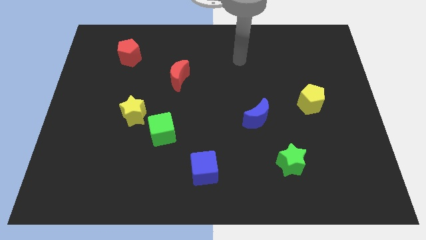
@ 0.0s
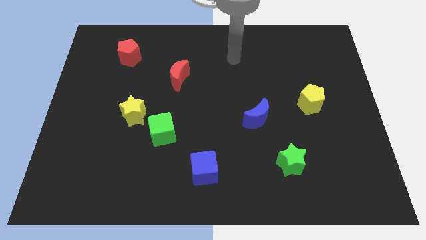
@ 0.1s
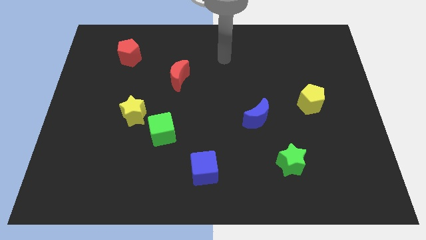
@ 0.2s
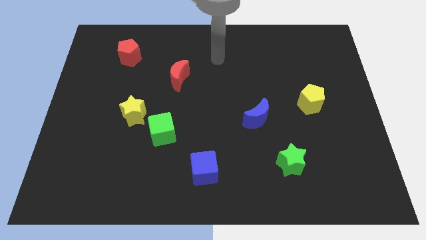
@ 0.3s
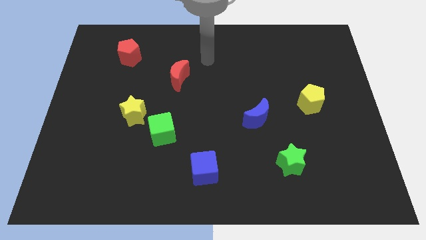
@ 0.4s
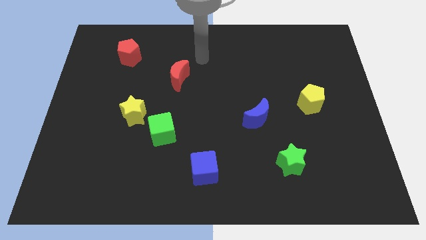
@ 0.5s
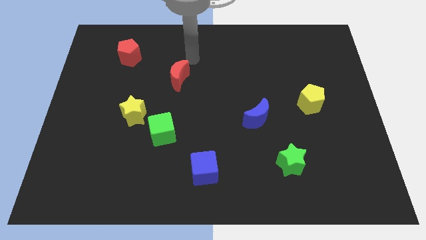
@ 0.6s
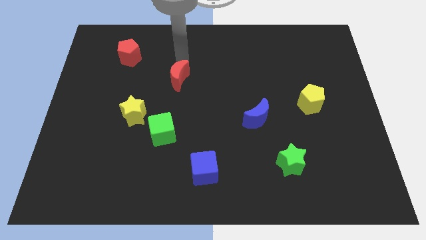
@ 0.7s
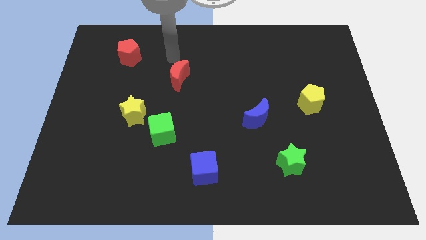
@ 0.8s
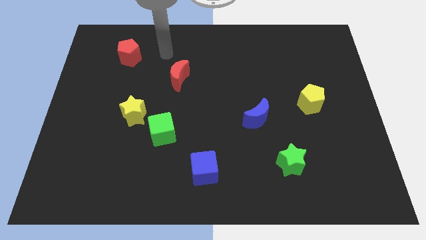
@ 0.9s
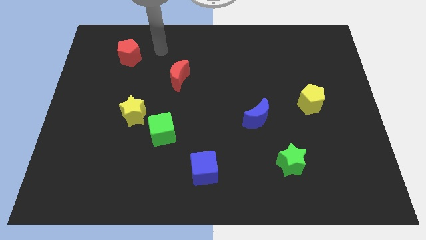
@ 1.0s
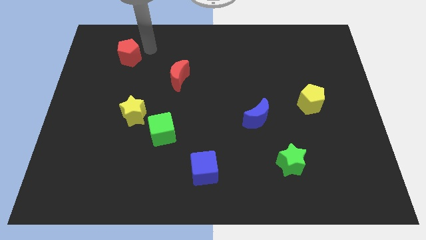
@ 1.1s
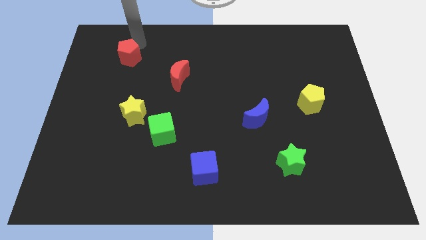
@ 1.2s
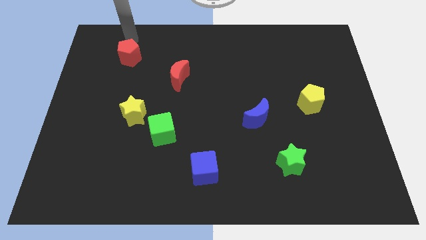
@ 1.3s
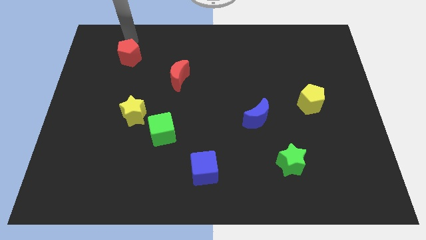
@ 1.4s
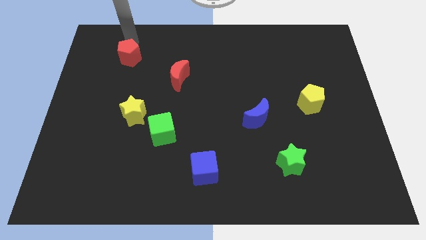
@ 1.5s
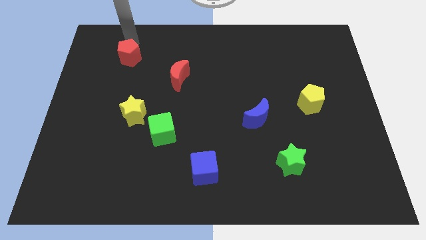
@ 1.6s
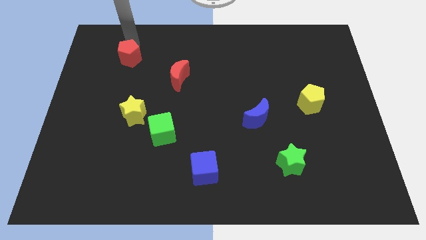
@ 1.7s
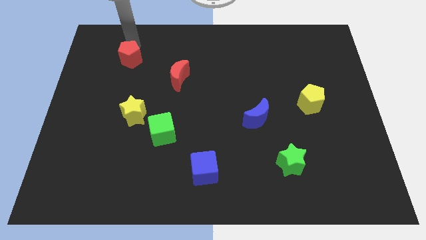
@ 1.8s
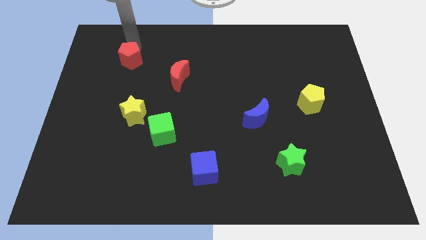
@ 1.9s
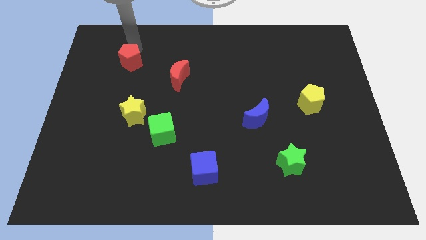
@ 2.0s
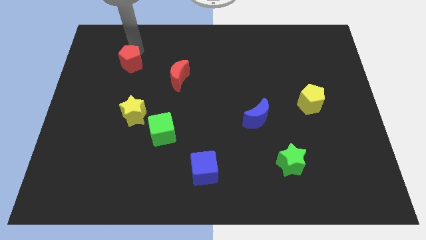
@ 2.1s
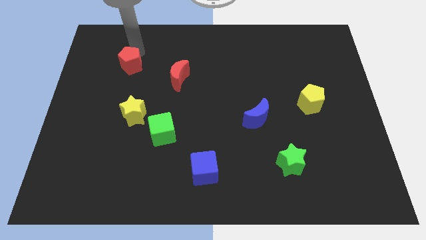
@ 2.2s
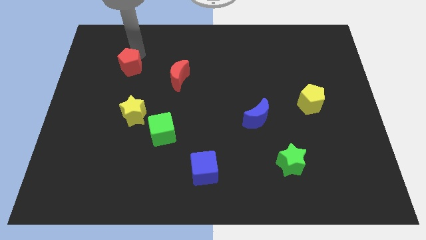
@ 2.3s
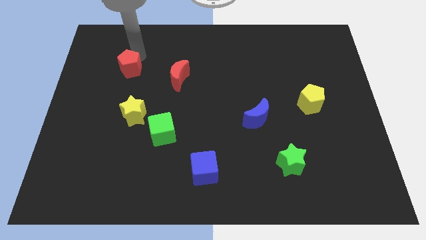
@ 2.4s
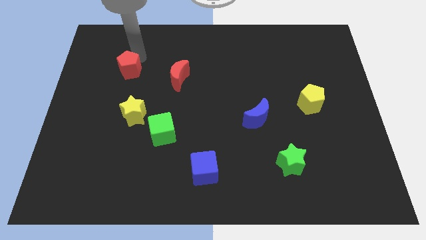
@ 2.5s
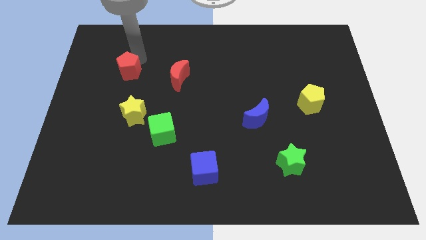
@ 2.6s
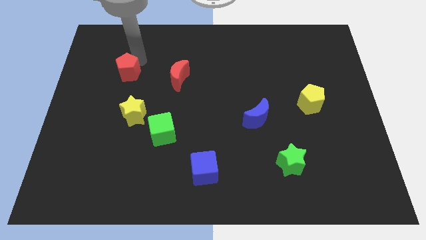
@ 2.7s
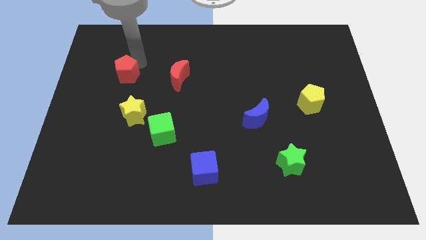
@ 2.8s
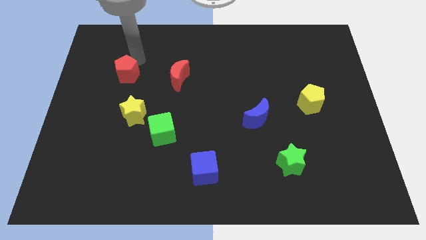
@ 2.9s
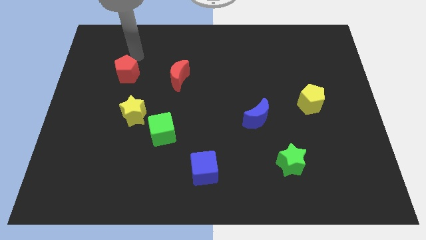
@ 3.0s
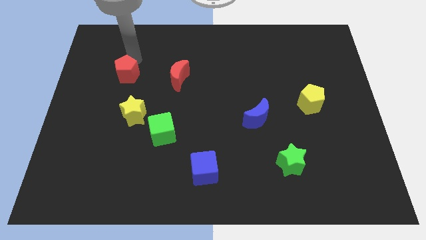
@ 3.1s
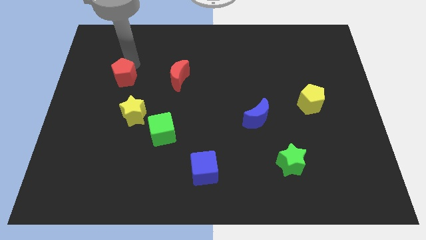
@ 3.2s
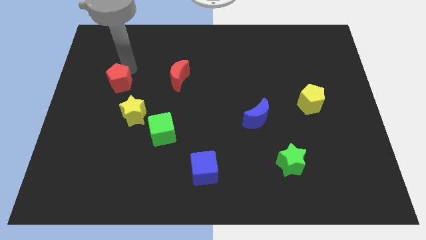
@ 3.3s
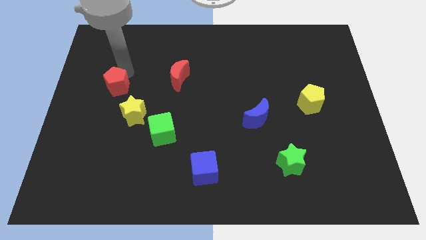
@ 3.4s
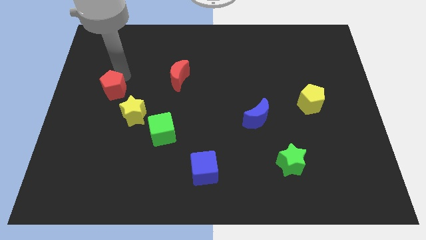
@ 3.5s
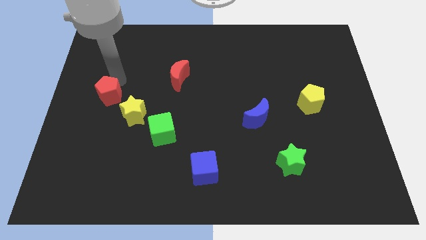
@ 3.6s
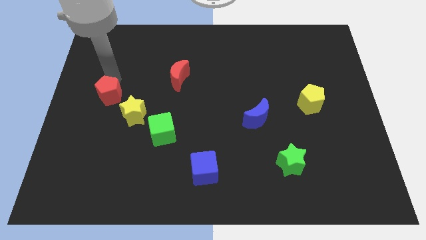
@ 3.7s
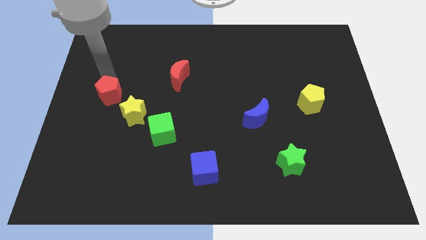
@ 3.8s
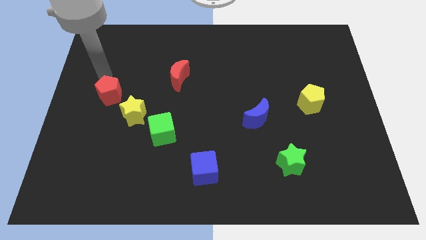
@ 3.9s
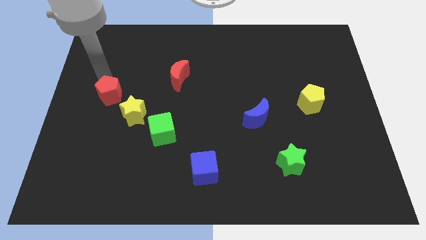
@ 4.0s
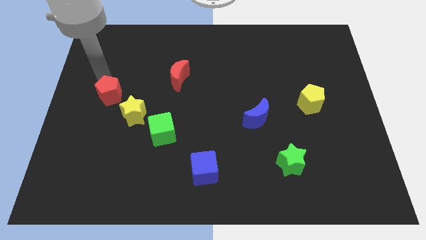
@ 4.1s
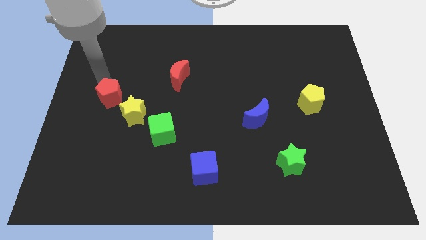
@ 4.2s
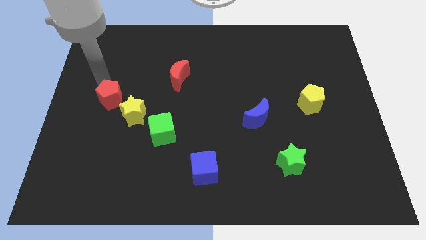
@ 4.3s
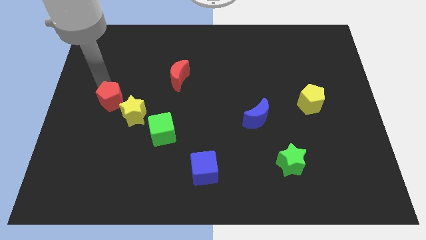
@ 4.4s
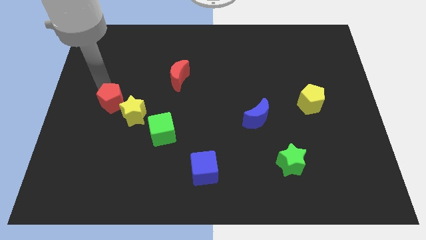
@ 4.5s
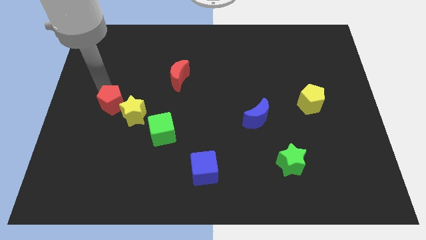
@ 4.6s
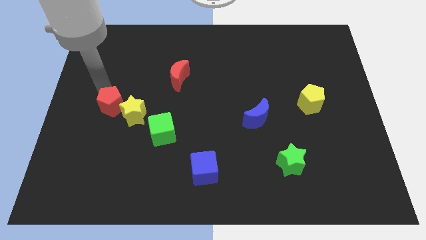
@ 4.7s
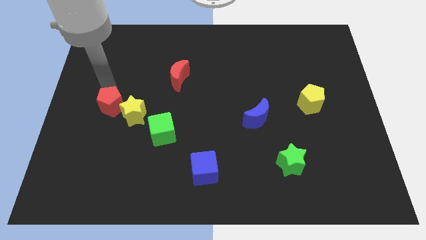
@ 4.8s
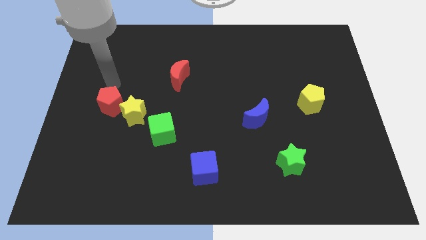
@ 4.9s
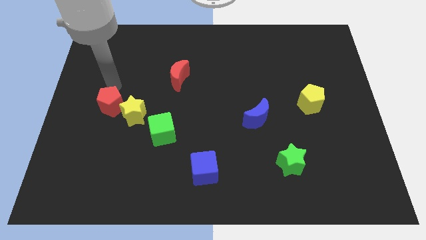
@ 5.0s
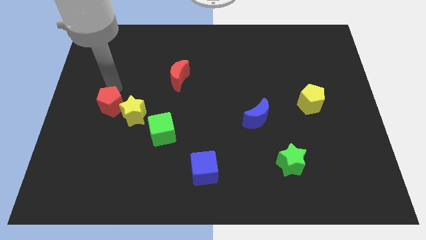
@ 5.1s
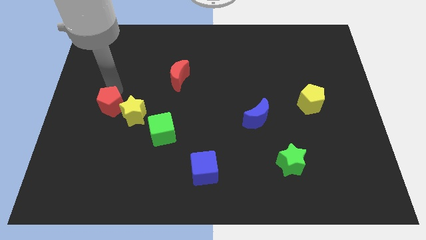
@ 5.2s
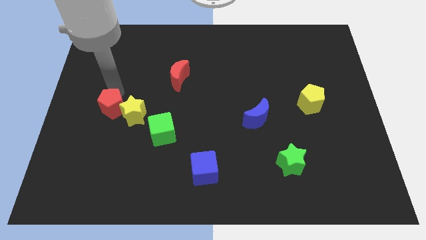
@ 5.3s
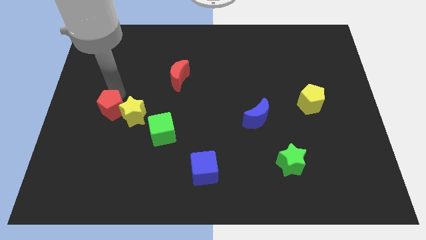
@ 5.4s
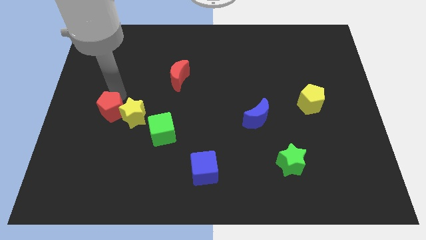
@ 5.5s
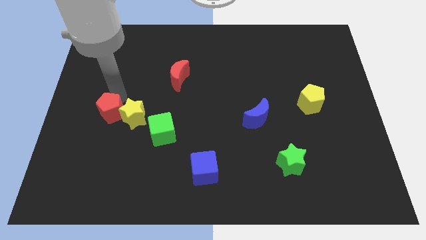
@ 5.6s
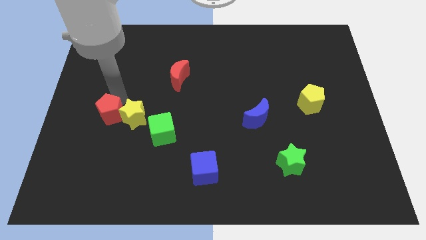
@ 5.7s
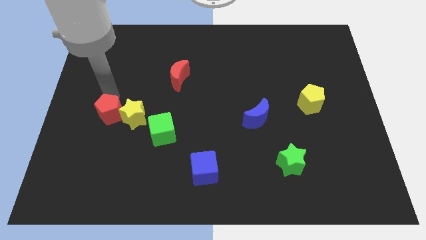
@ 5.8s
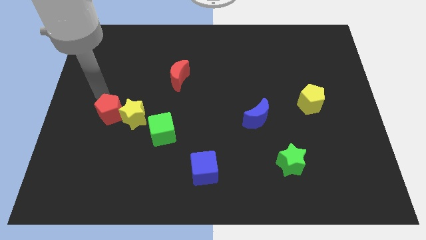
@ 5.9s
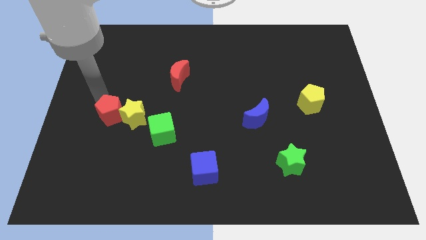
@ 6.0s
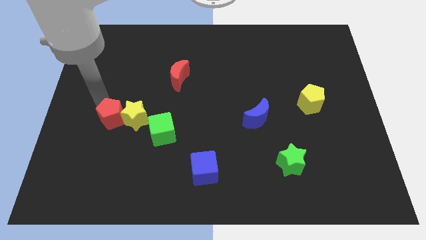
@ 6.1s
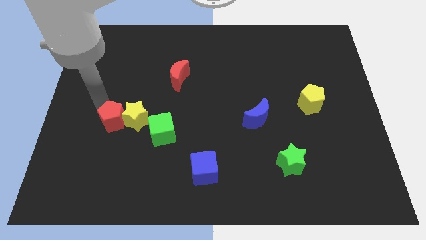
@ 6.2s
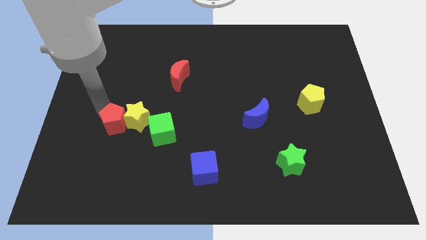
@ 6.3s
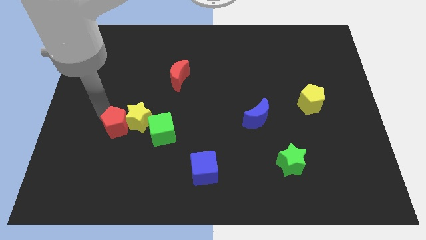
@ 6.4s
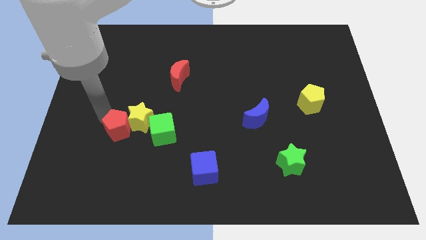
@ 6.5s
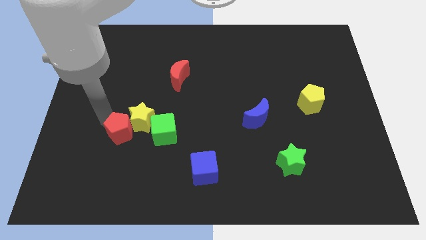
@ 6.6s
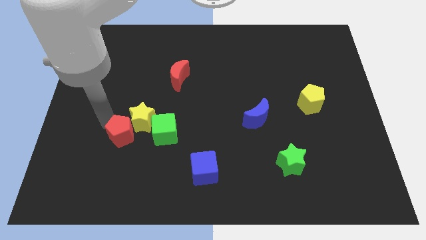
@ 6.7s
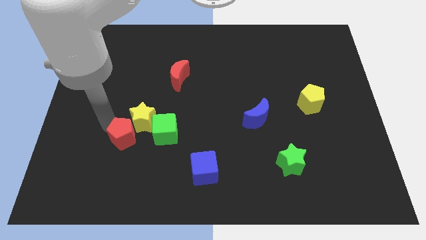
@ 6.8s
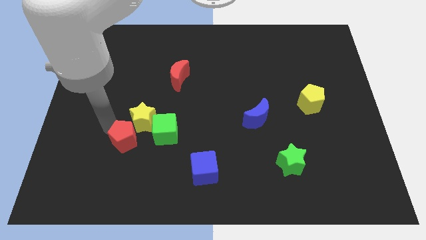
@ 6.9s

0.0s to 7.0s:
put the red pentagon to the bottom left of the green cube

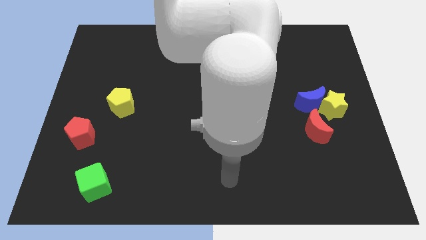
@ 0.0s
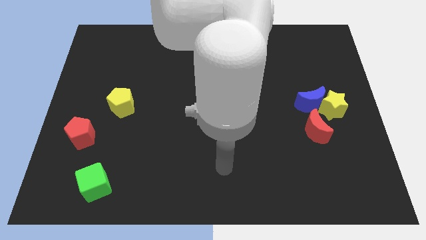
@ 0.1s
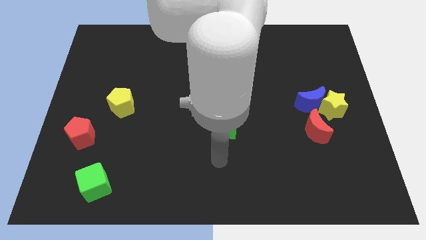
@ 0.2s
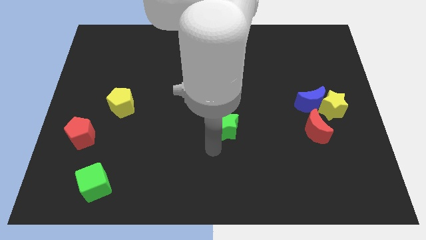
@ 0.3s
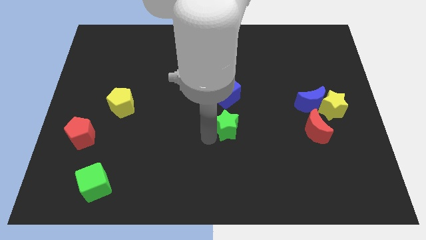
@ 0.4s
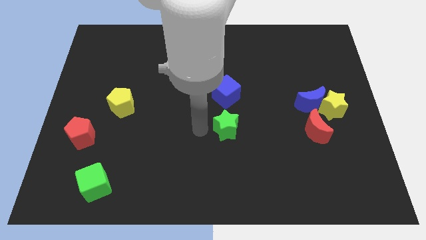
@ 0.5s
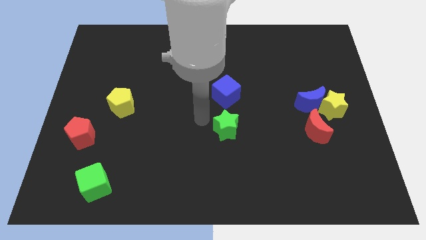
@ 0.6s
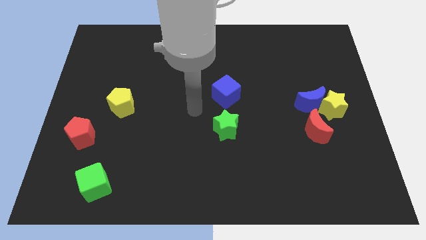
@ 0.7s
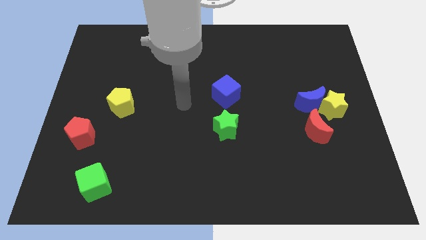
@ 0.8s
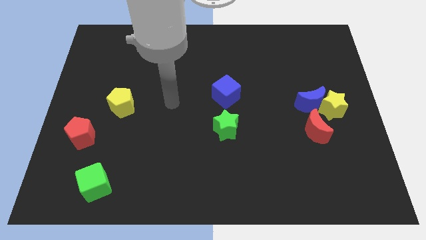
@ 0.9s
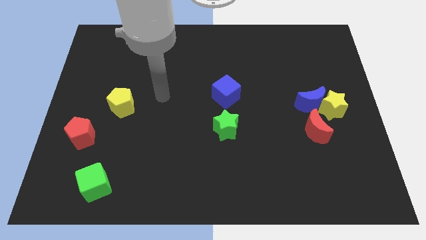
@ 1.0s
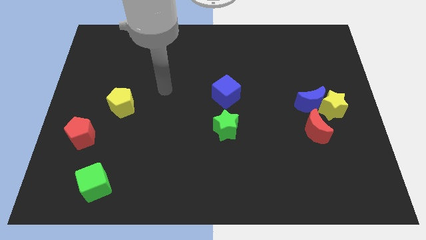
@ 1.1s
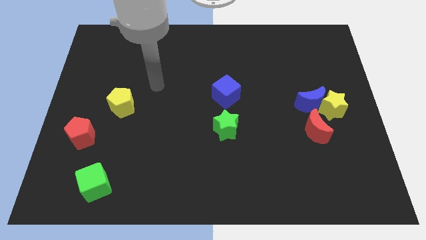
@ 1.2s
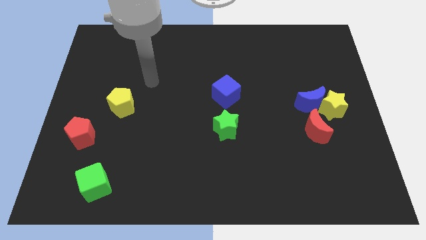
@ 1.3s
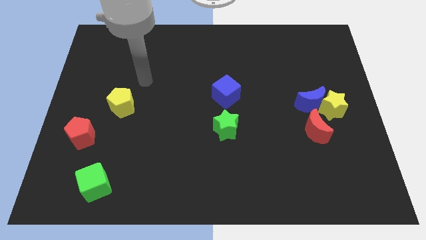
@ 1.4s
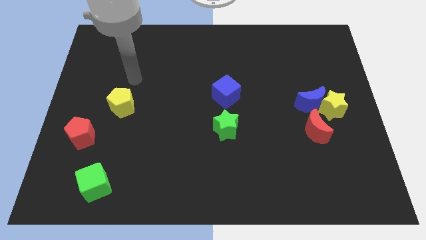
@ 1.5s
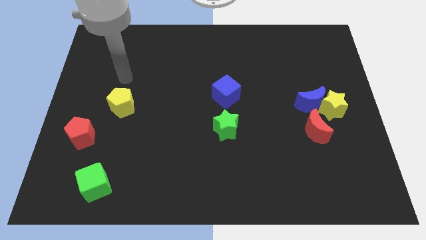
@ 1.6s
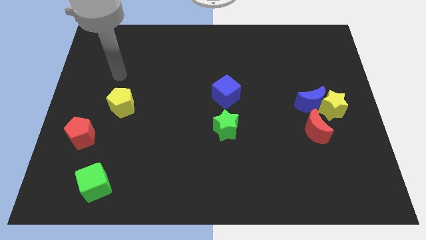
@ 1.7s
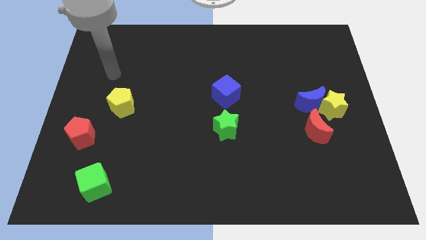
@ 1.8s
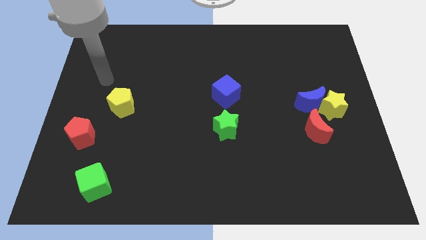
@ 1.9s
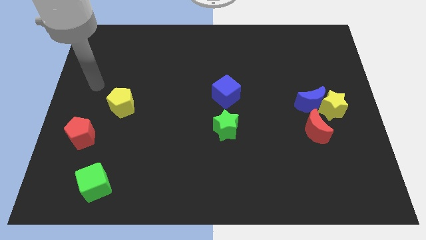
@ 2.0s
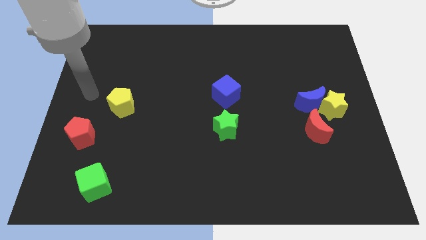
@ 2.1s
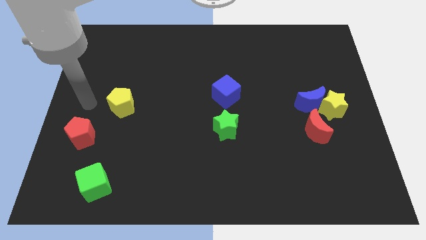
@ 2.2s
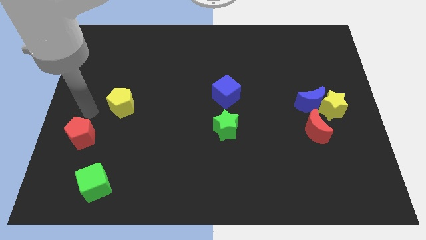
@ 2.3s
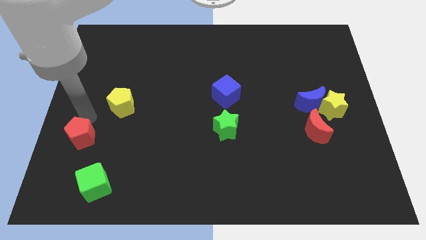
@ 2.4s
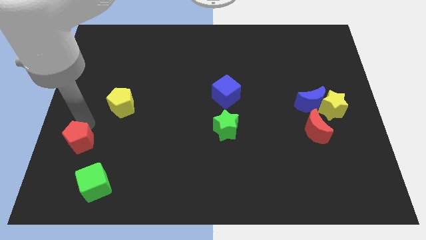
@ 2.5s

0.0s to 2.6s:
push the red pentagon diagonally up and to the left of the green cube
